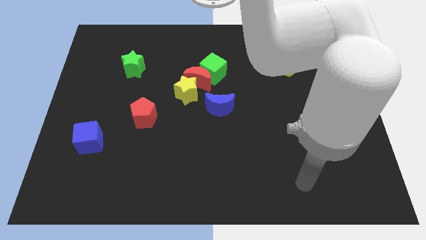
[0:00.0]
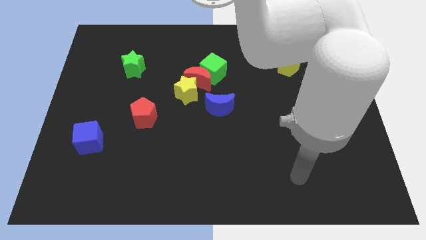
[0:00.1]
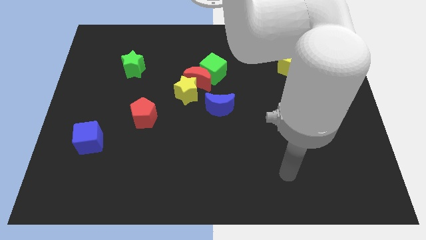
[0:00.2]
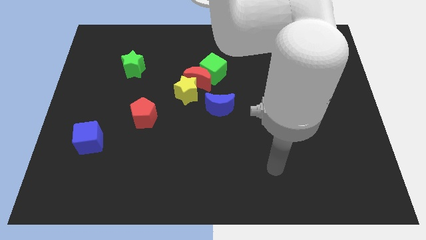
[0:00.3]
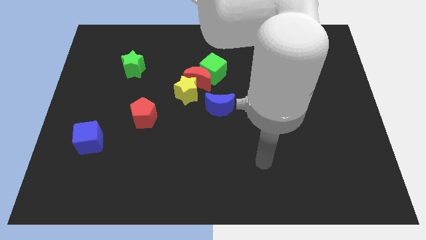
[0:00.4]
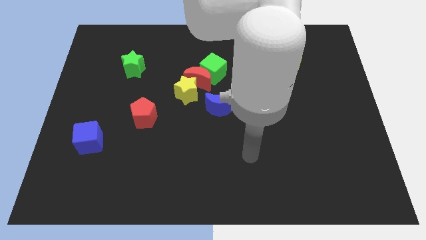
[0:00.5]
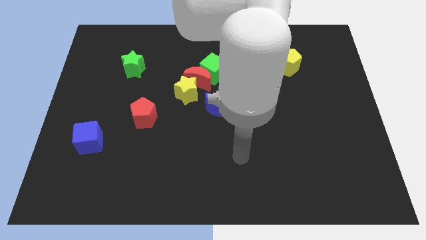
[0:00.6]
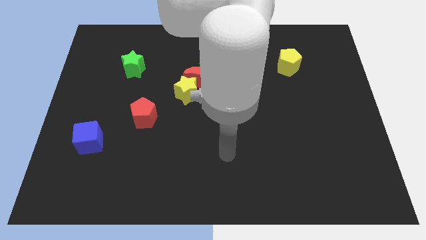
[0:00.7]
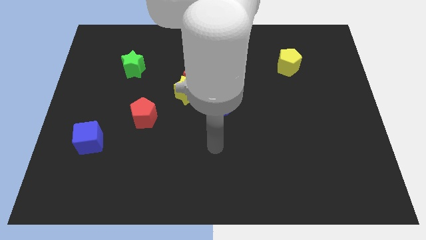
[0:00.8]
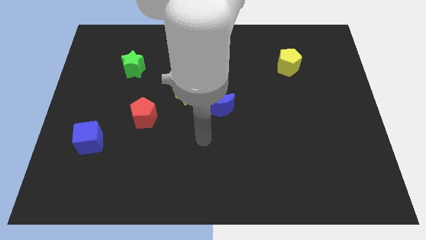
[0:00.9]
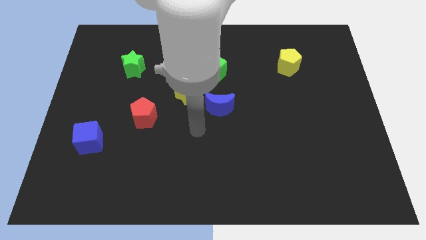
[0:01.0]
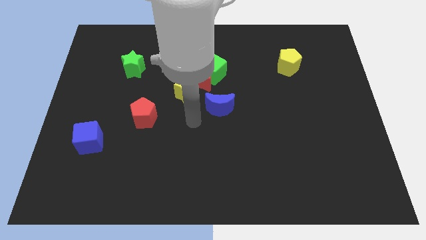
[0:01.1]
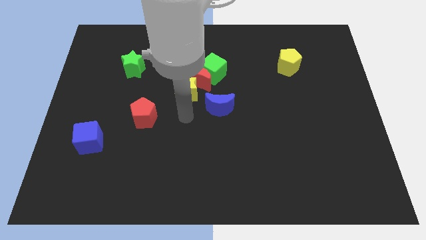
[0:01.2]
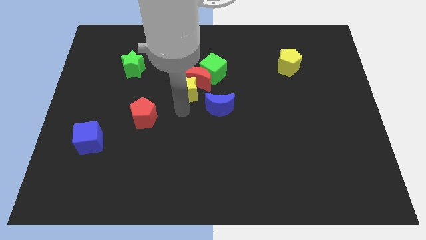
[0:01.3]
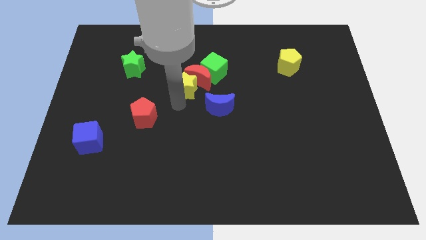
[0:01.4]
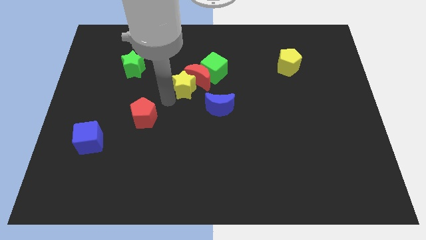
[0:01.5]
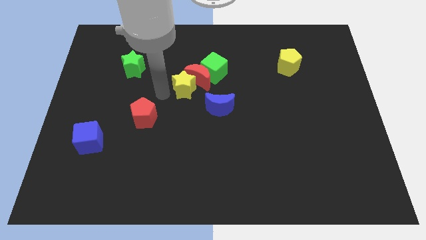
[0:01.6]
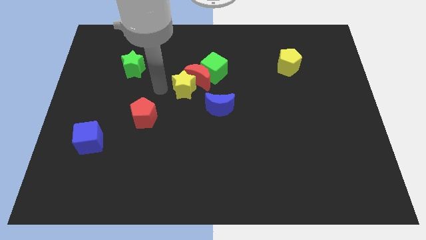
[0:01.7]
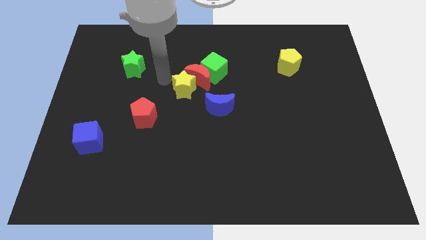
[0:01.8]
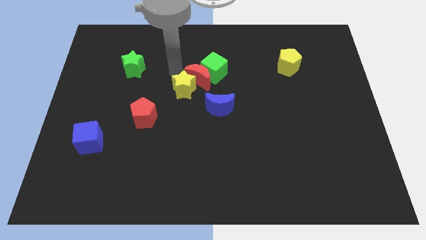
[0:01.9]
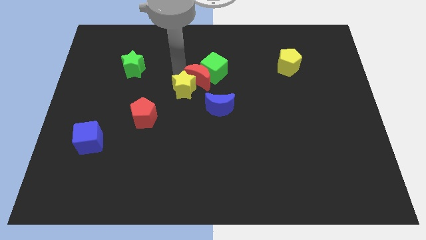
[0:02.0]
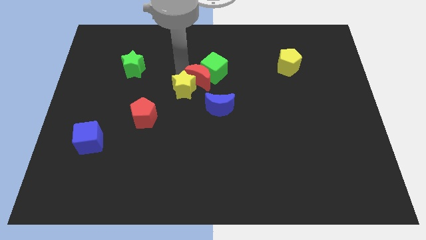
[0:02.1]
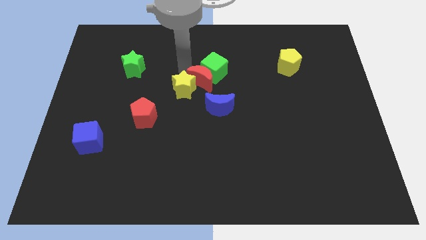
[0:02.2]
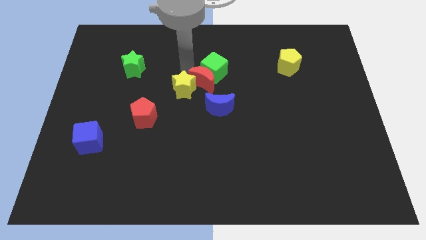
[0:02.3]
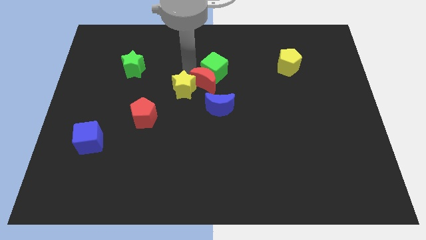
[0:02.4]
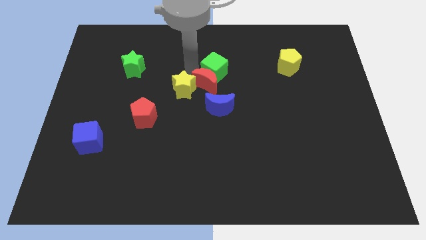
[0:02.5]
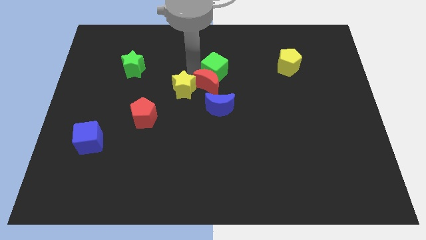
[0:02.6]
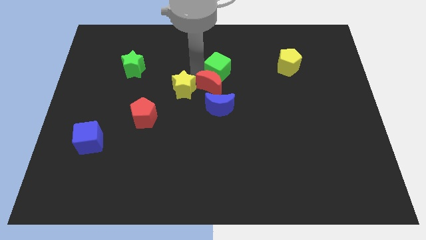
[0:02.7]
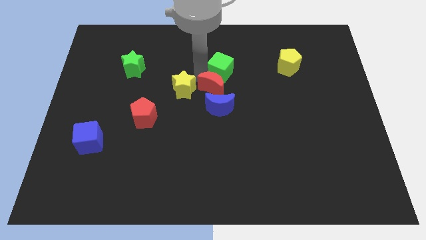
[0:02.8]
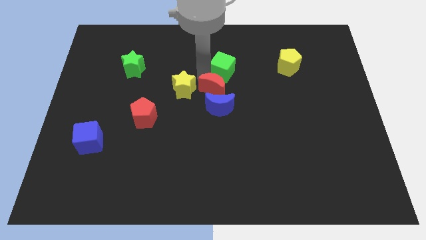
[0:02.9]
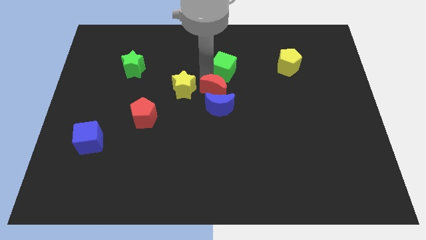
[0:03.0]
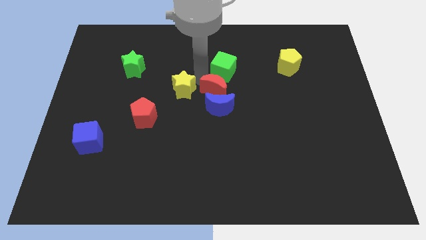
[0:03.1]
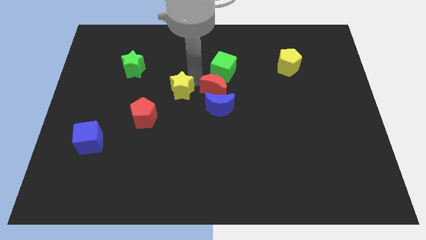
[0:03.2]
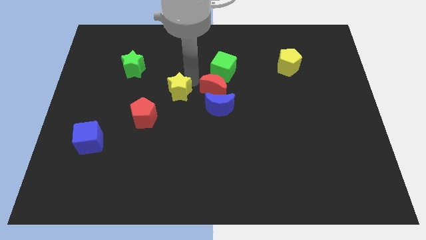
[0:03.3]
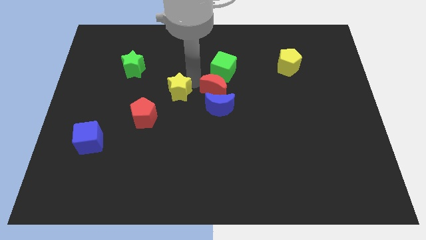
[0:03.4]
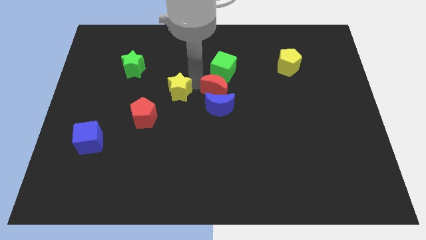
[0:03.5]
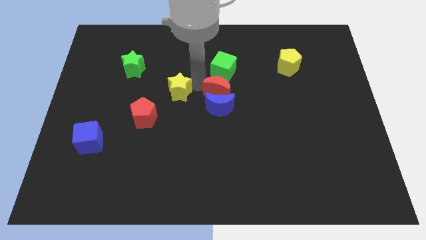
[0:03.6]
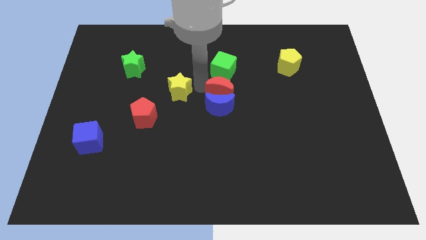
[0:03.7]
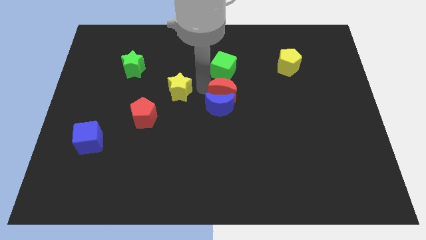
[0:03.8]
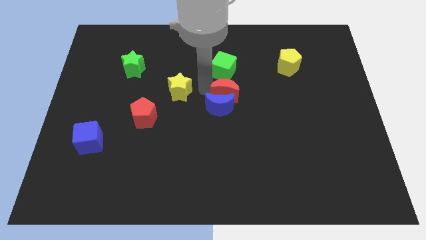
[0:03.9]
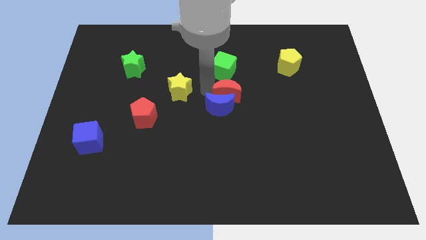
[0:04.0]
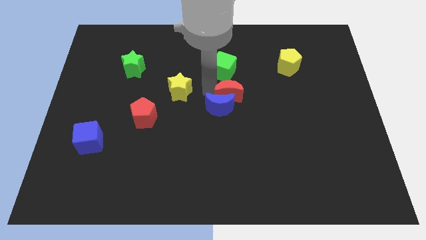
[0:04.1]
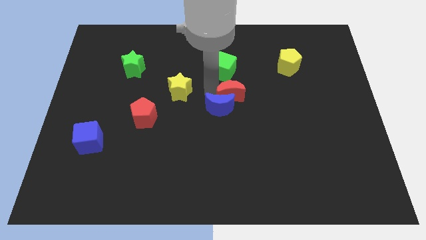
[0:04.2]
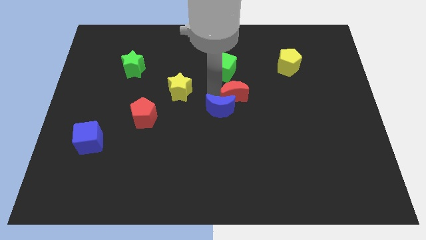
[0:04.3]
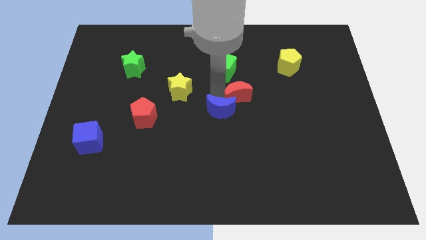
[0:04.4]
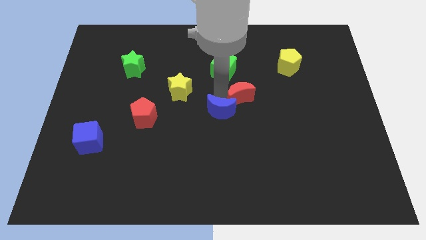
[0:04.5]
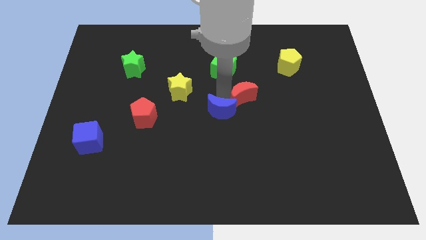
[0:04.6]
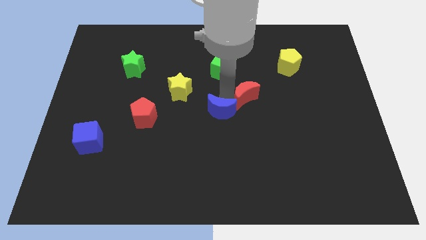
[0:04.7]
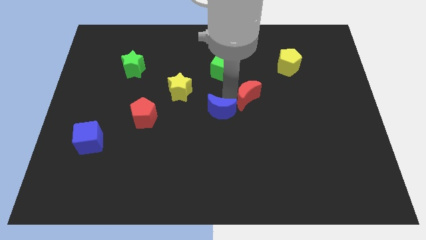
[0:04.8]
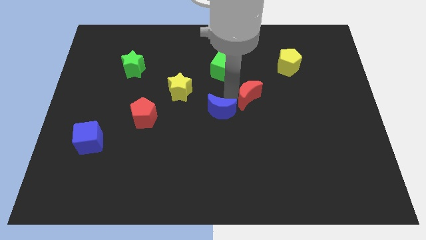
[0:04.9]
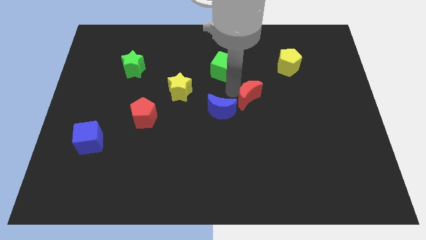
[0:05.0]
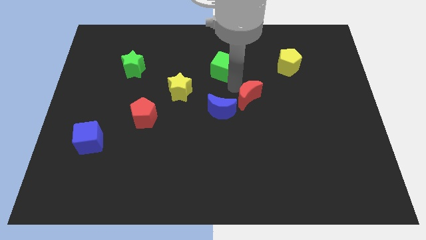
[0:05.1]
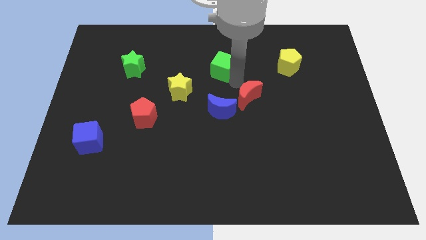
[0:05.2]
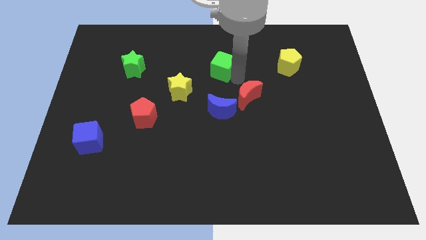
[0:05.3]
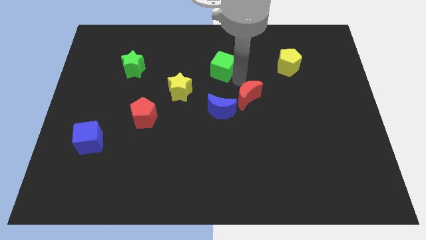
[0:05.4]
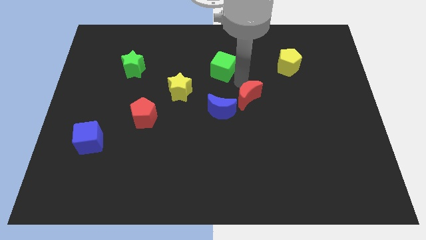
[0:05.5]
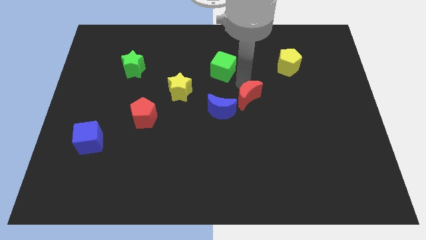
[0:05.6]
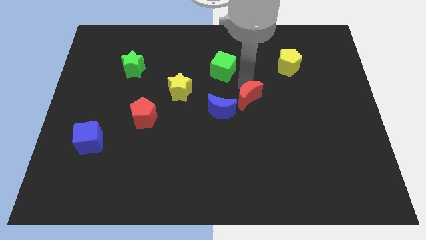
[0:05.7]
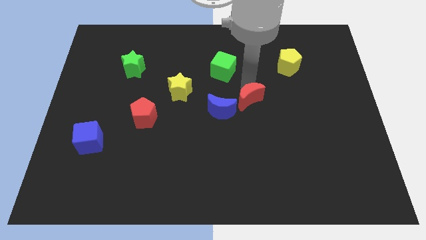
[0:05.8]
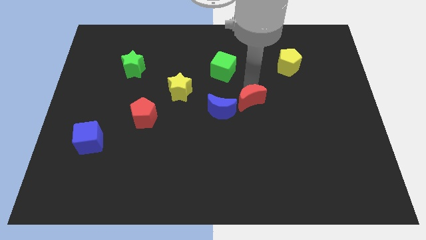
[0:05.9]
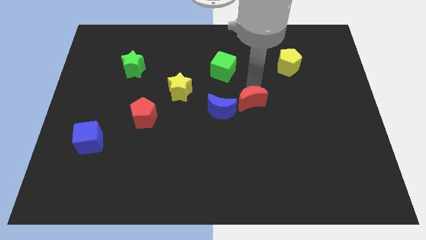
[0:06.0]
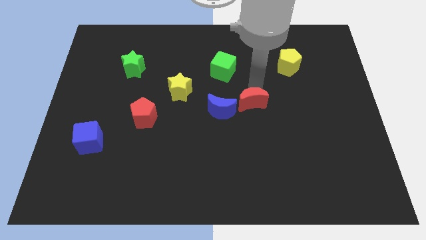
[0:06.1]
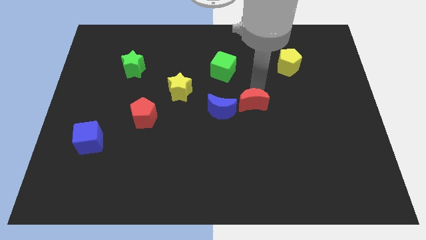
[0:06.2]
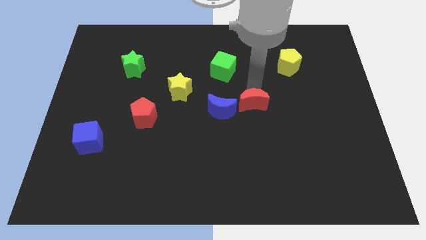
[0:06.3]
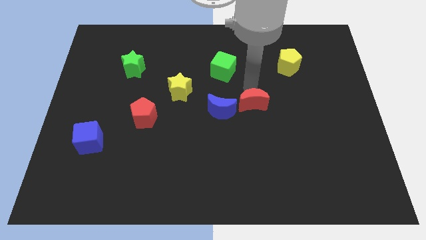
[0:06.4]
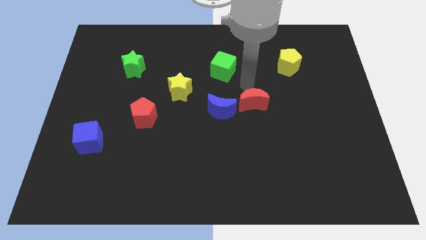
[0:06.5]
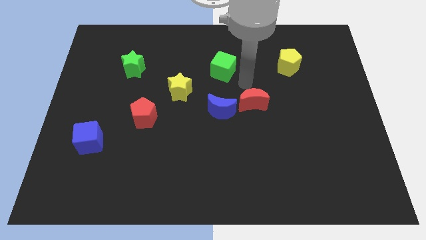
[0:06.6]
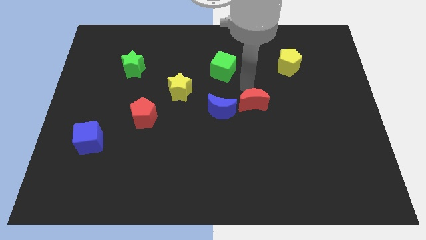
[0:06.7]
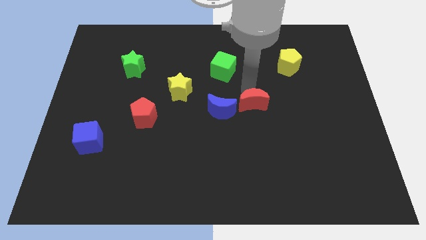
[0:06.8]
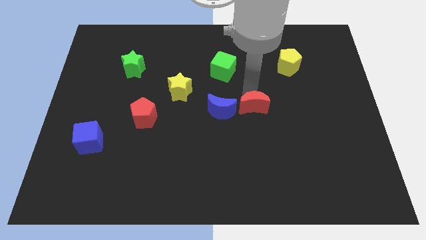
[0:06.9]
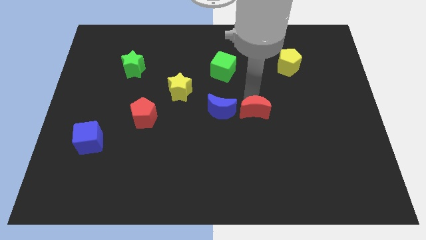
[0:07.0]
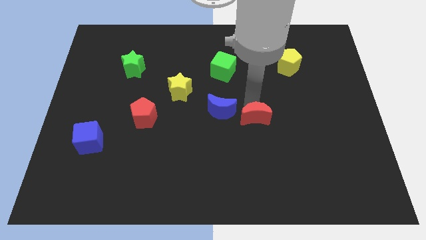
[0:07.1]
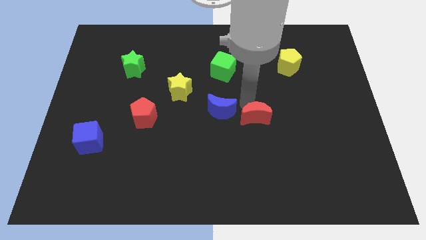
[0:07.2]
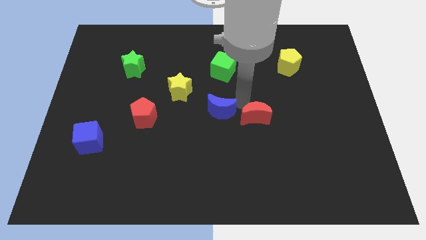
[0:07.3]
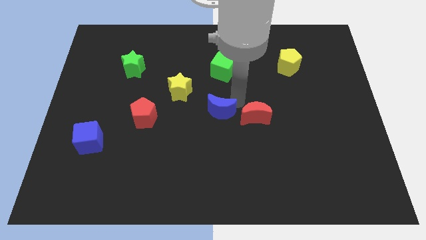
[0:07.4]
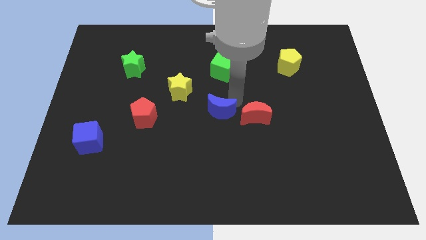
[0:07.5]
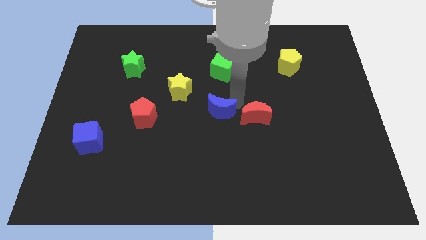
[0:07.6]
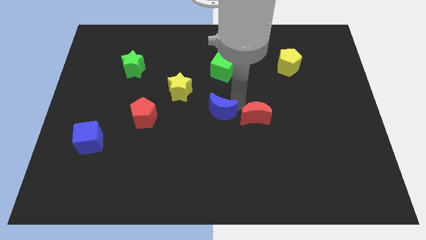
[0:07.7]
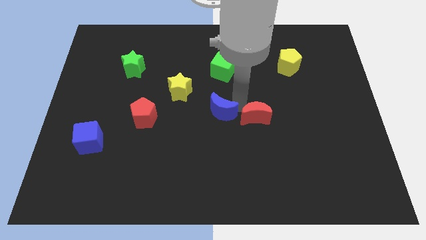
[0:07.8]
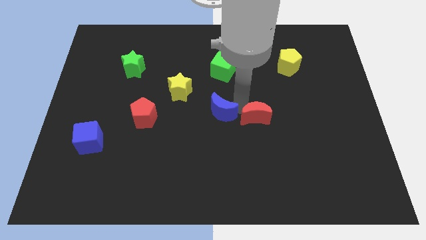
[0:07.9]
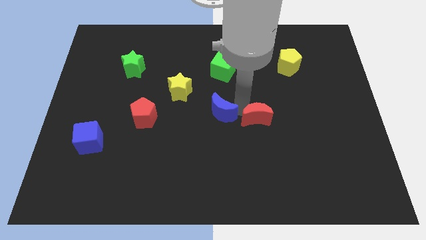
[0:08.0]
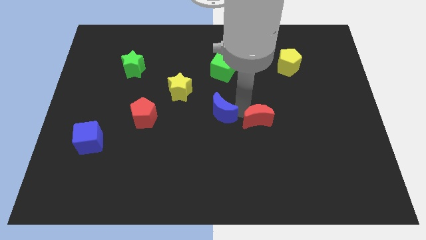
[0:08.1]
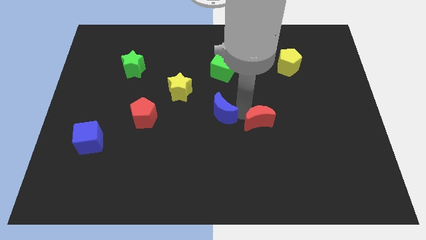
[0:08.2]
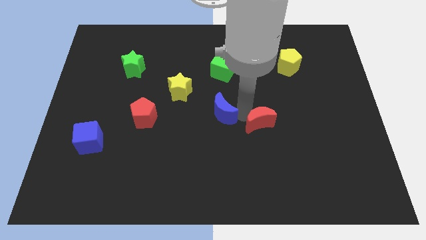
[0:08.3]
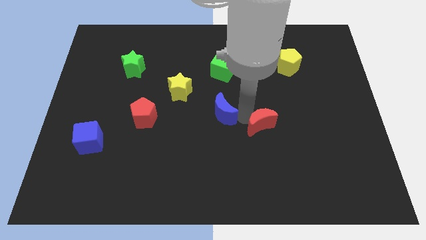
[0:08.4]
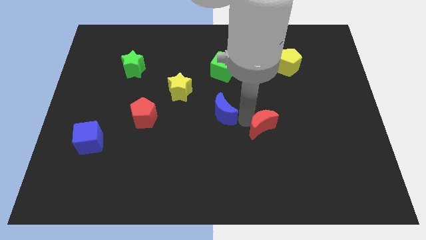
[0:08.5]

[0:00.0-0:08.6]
push the red moon down and then to the right
